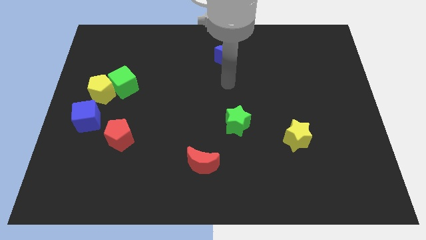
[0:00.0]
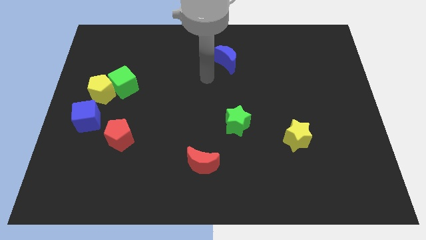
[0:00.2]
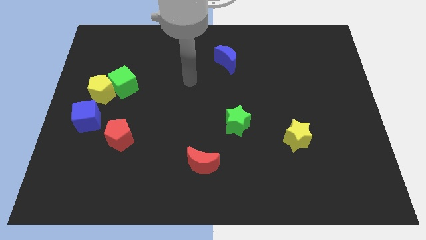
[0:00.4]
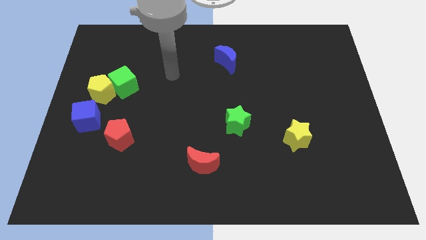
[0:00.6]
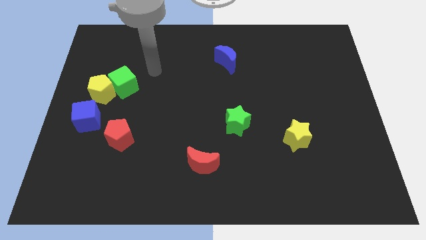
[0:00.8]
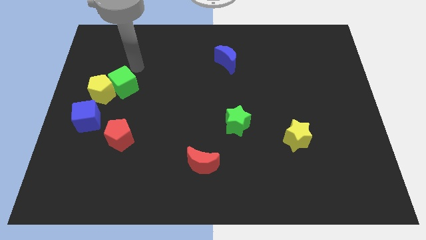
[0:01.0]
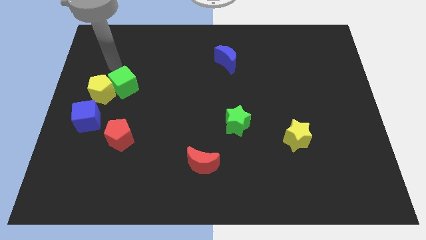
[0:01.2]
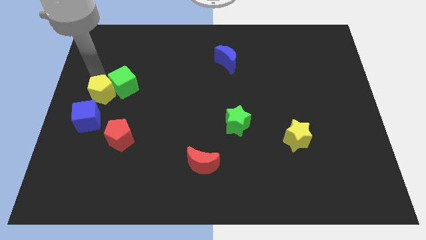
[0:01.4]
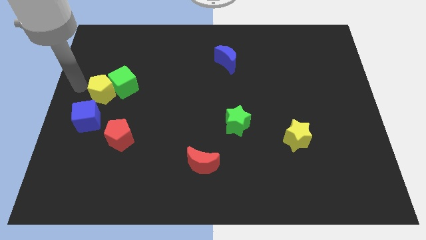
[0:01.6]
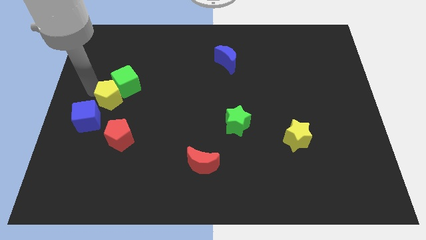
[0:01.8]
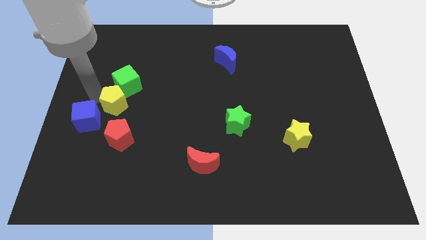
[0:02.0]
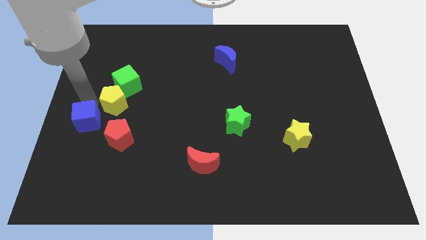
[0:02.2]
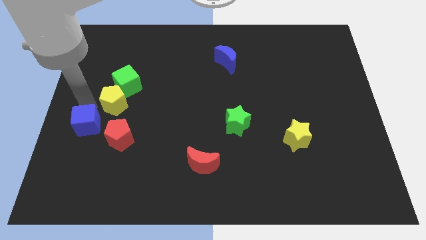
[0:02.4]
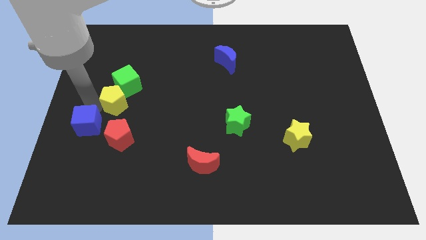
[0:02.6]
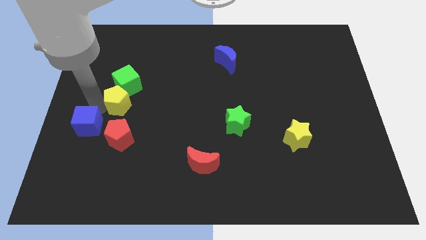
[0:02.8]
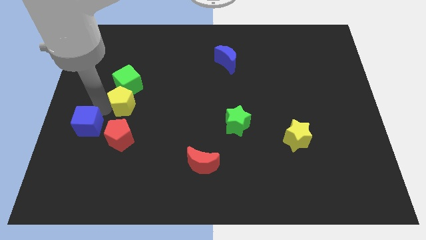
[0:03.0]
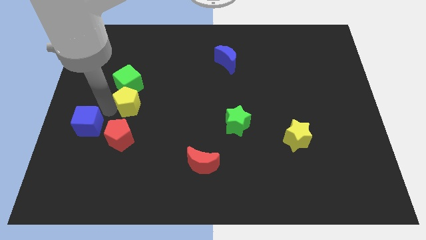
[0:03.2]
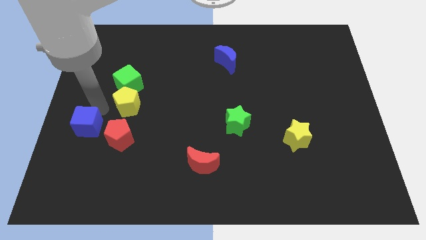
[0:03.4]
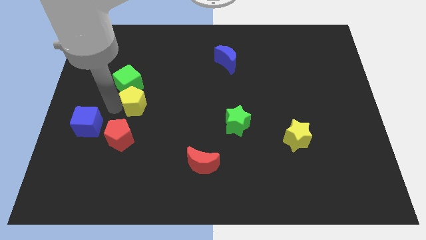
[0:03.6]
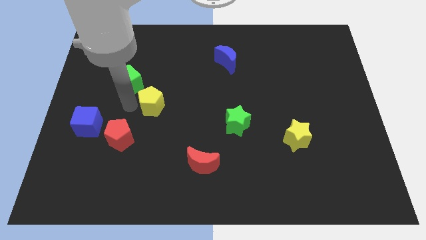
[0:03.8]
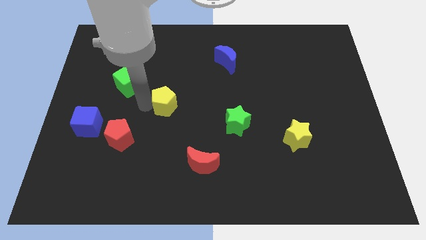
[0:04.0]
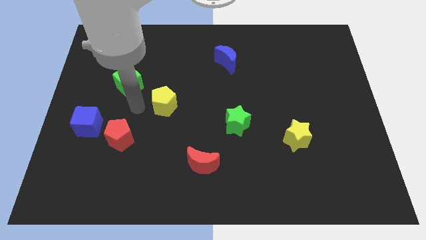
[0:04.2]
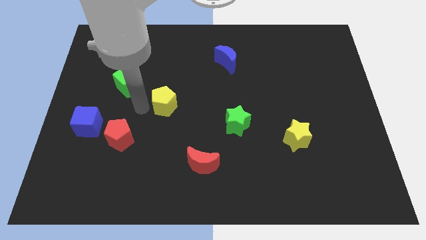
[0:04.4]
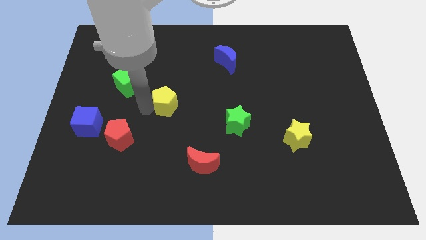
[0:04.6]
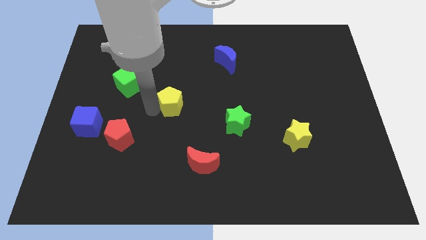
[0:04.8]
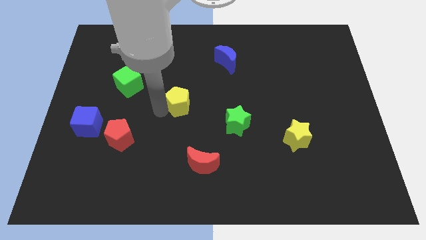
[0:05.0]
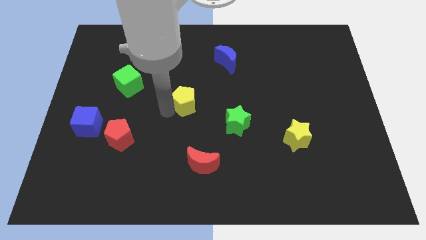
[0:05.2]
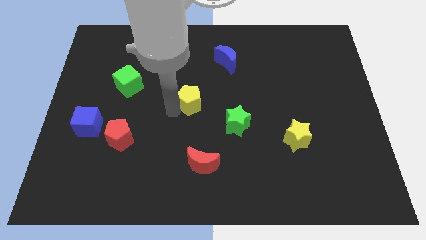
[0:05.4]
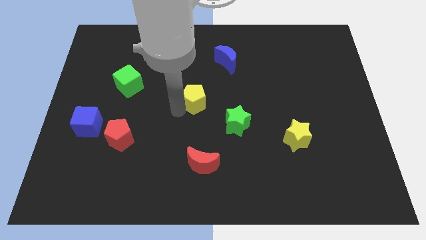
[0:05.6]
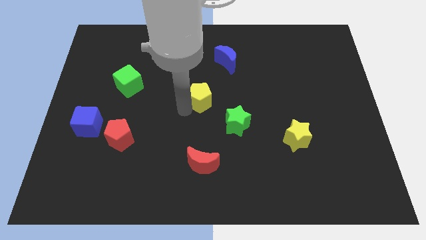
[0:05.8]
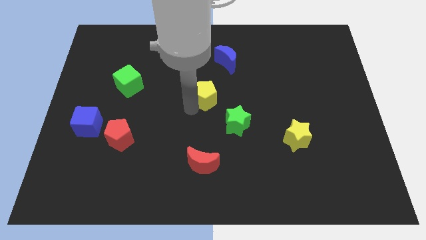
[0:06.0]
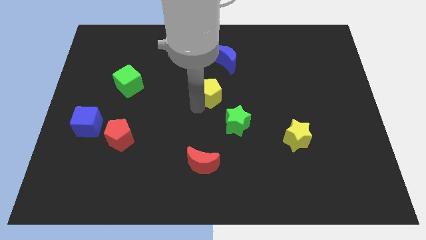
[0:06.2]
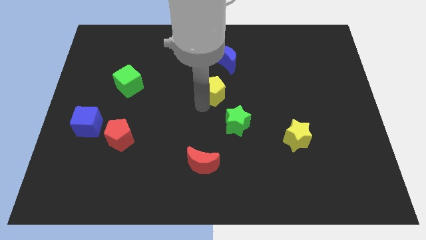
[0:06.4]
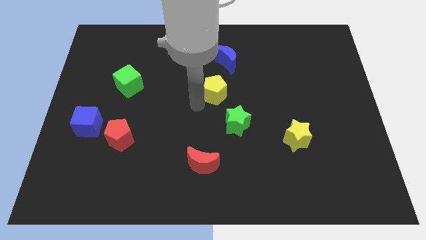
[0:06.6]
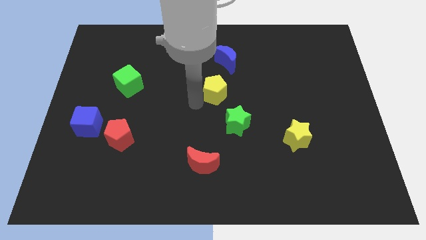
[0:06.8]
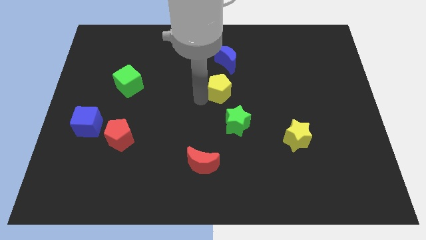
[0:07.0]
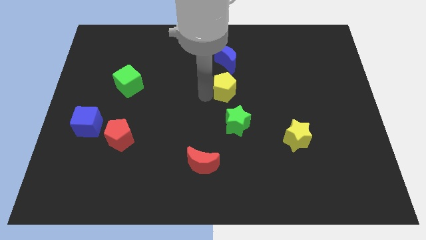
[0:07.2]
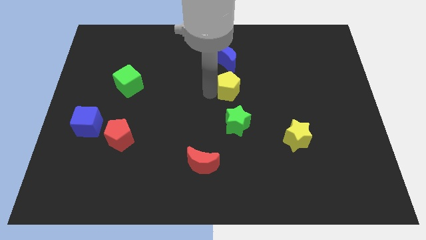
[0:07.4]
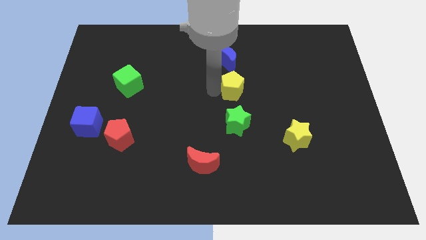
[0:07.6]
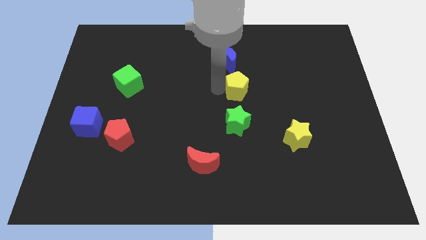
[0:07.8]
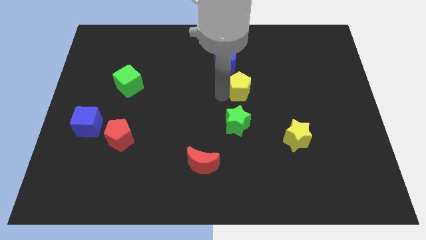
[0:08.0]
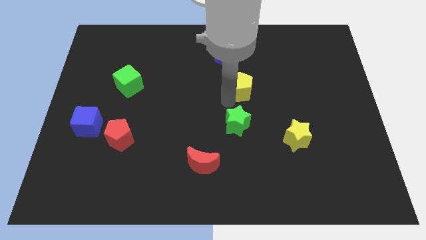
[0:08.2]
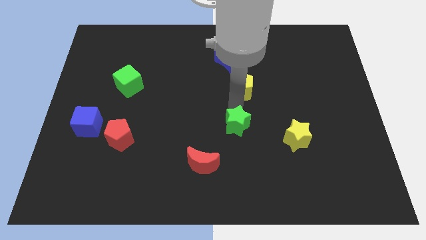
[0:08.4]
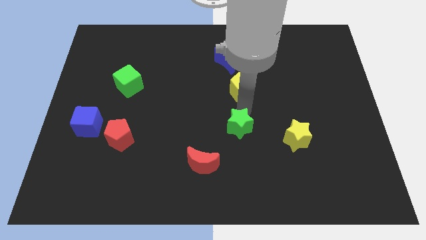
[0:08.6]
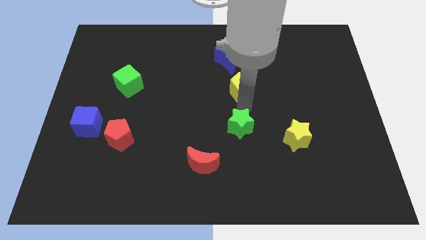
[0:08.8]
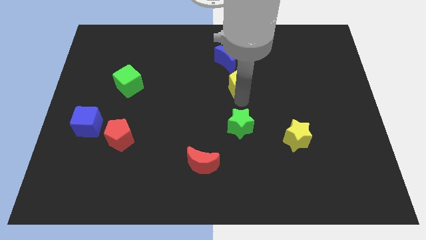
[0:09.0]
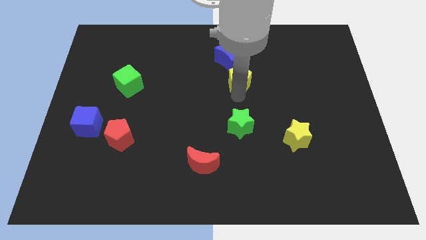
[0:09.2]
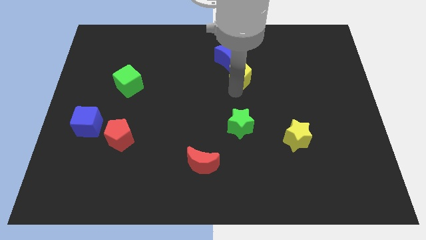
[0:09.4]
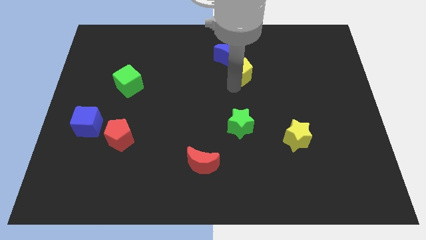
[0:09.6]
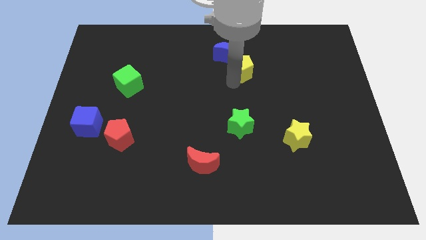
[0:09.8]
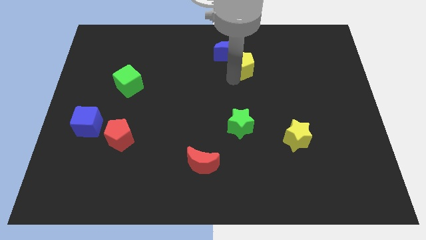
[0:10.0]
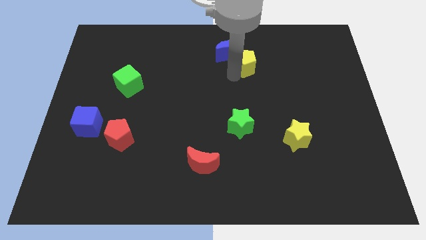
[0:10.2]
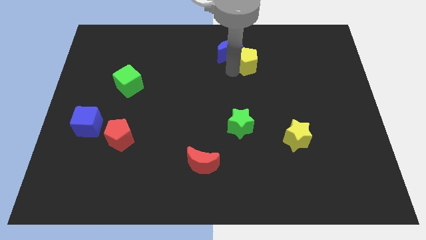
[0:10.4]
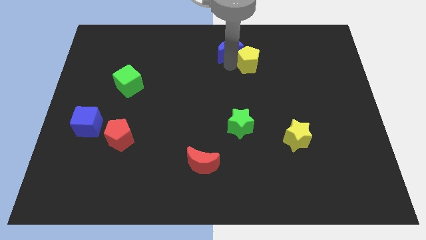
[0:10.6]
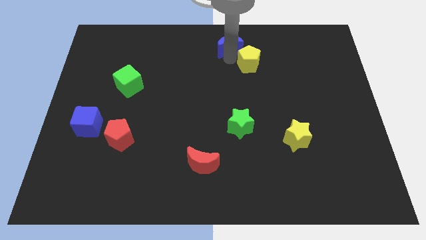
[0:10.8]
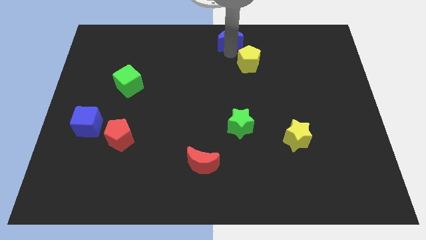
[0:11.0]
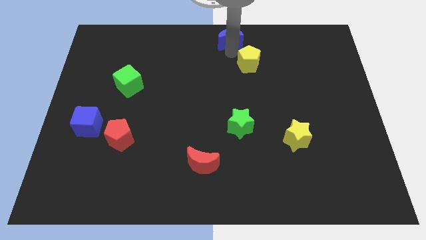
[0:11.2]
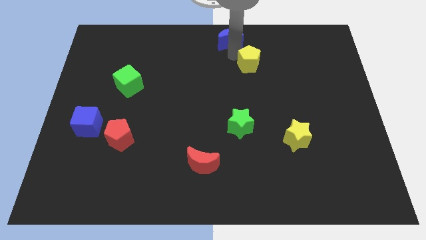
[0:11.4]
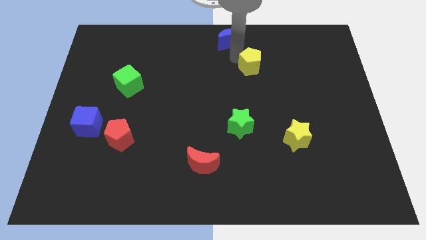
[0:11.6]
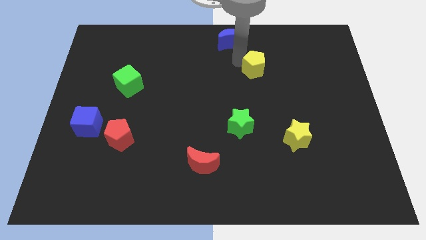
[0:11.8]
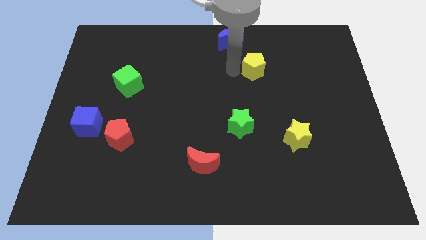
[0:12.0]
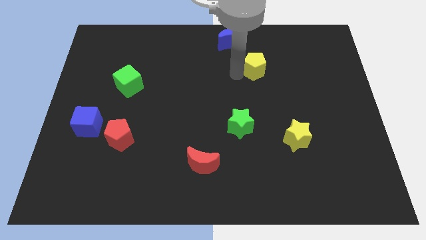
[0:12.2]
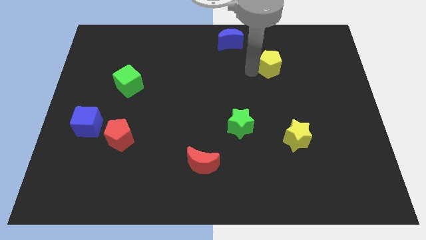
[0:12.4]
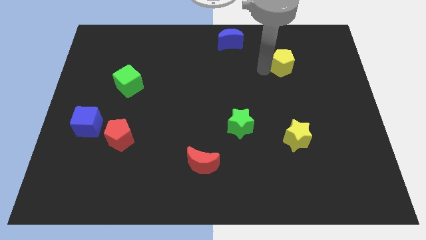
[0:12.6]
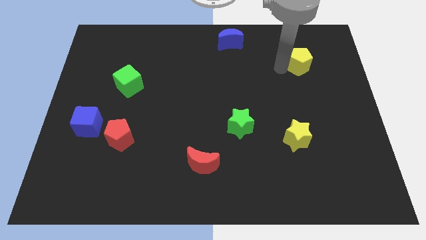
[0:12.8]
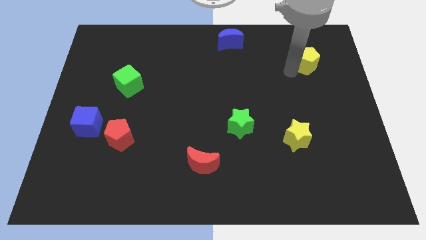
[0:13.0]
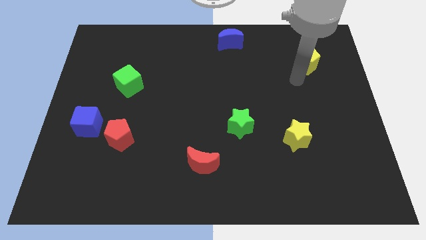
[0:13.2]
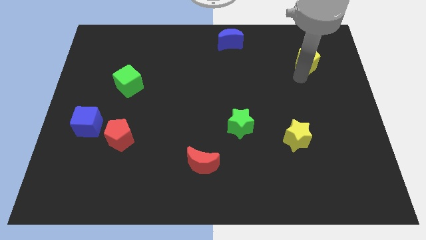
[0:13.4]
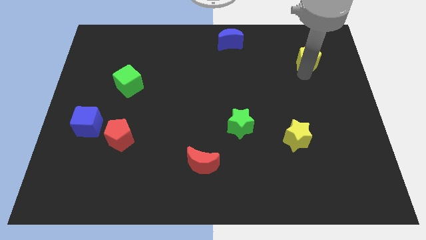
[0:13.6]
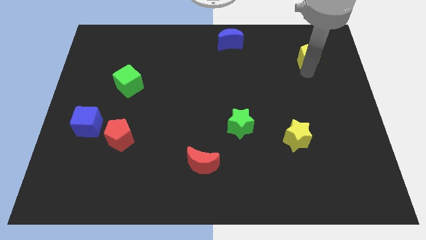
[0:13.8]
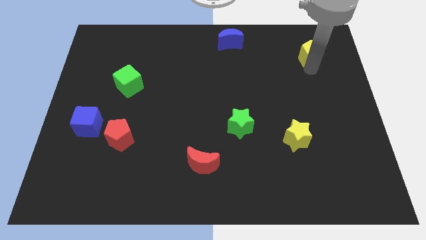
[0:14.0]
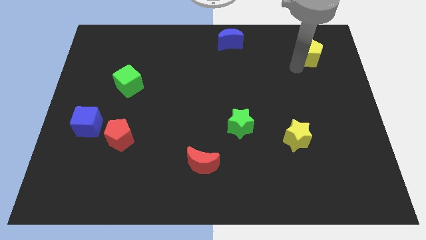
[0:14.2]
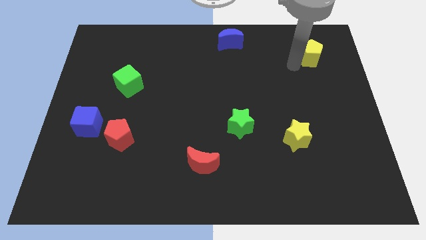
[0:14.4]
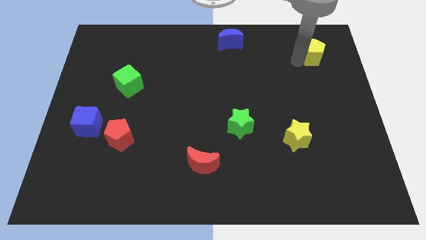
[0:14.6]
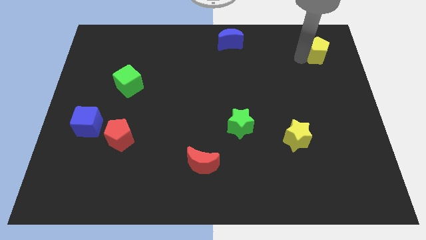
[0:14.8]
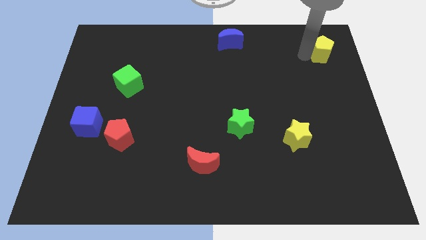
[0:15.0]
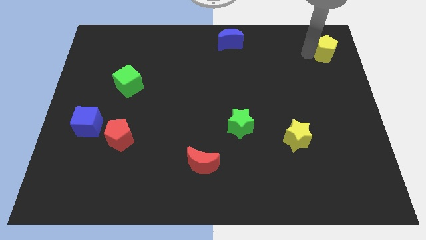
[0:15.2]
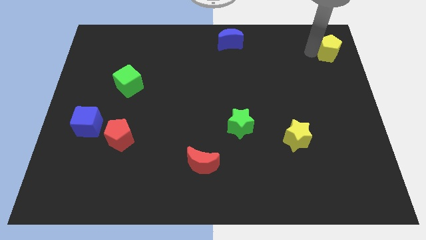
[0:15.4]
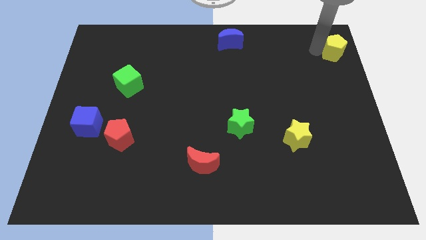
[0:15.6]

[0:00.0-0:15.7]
slide the yellow pentagon to the upper right corner
